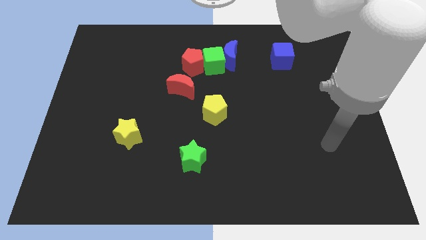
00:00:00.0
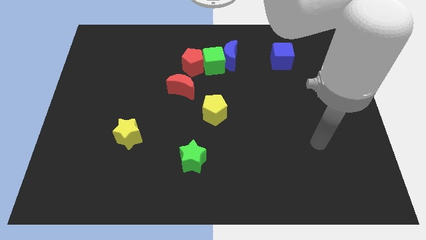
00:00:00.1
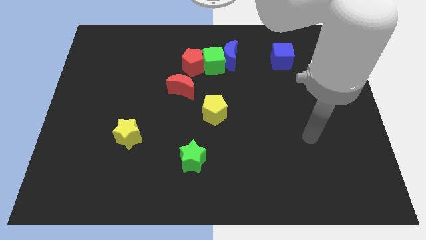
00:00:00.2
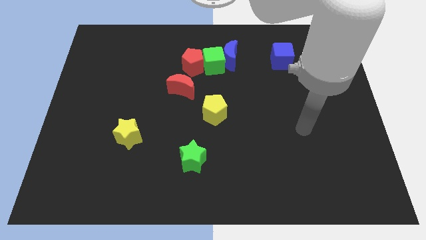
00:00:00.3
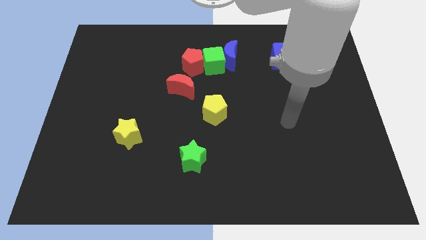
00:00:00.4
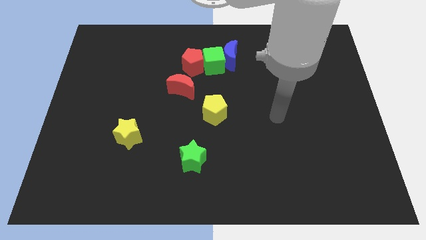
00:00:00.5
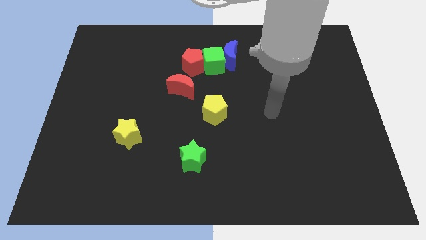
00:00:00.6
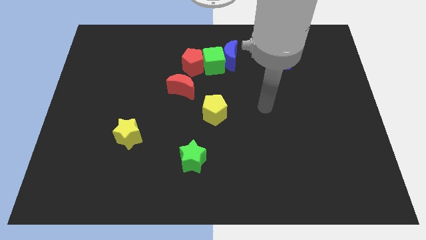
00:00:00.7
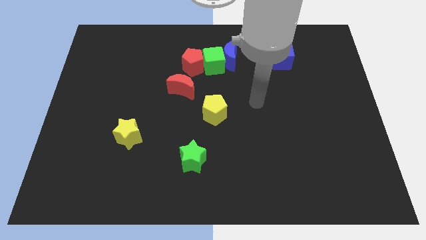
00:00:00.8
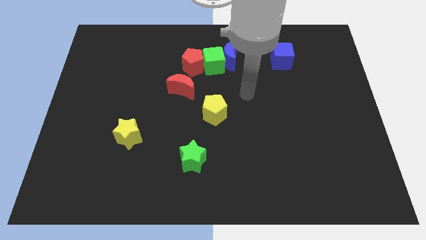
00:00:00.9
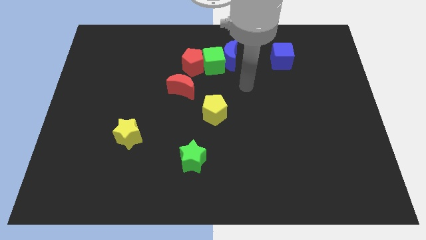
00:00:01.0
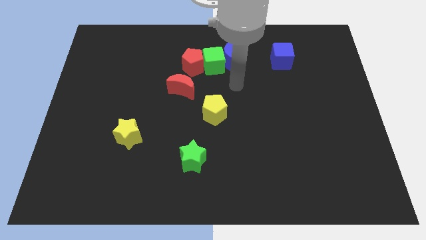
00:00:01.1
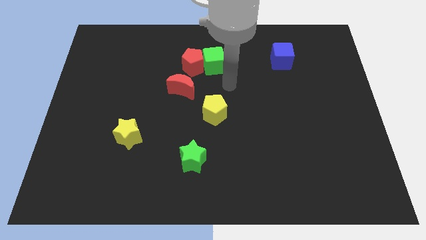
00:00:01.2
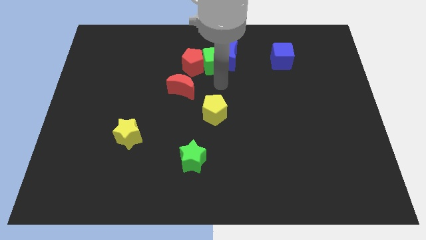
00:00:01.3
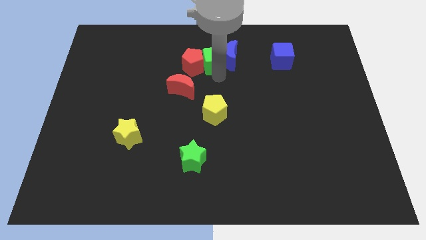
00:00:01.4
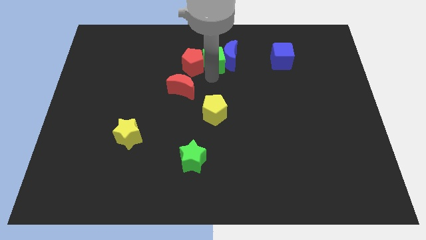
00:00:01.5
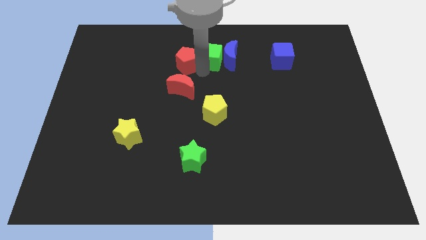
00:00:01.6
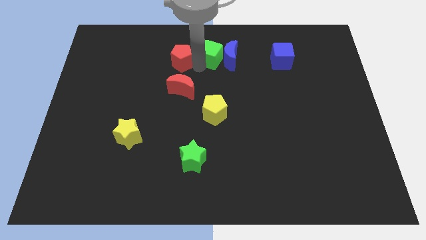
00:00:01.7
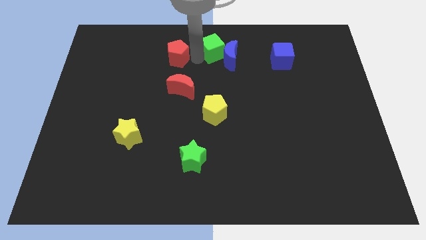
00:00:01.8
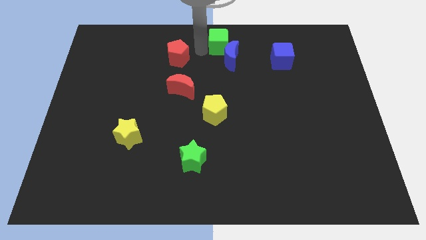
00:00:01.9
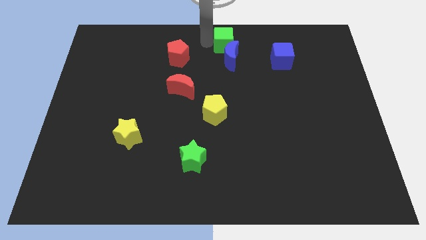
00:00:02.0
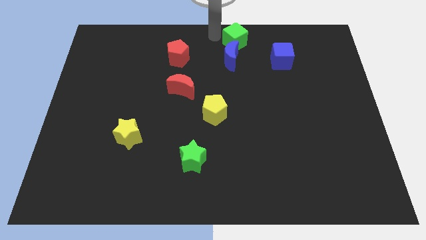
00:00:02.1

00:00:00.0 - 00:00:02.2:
separate the green cube from the blue moon and red pentagon

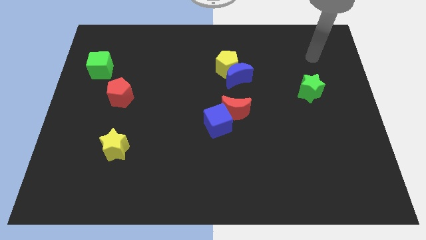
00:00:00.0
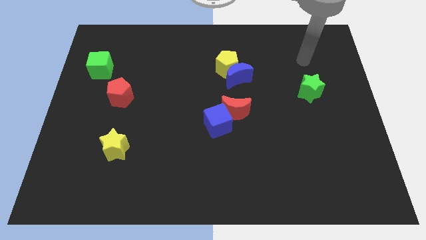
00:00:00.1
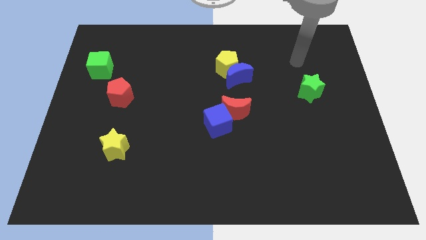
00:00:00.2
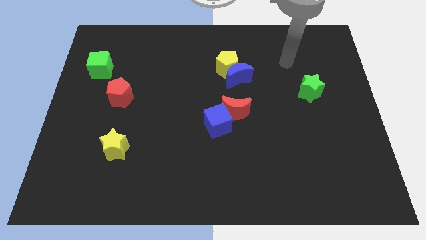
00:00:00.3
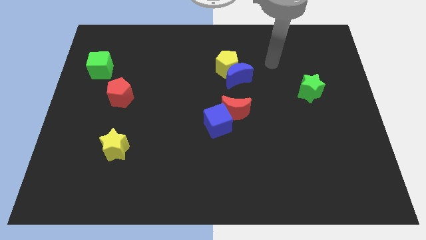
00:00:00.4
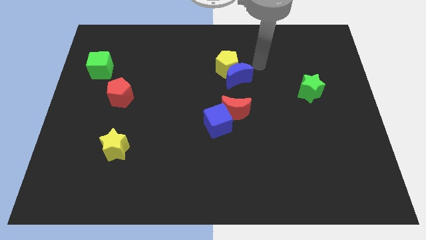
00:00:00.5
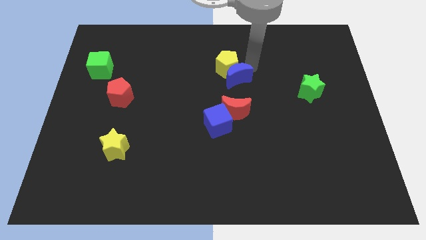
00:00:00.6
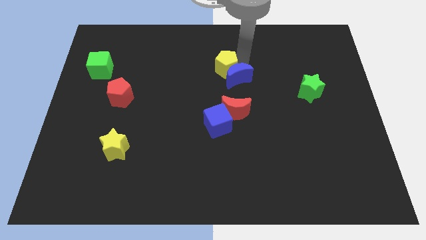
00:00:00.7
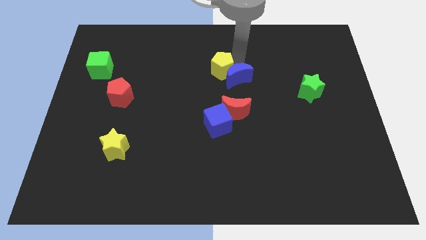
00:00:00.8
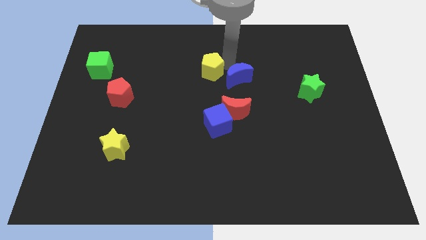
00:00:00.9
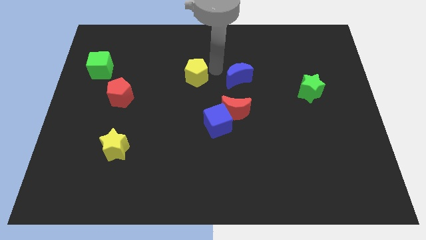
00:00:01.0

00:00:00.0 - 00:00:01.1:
separate the blue moon from the yellow pentagon

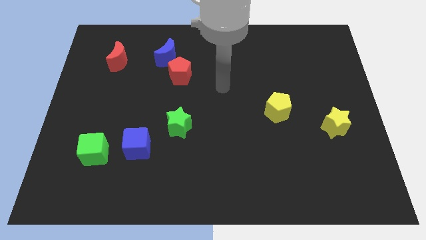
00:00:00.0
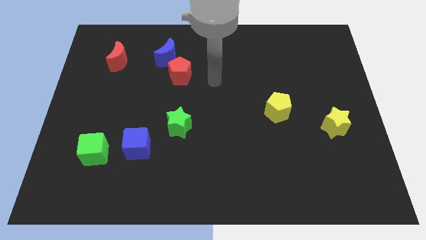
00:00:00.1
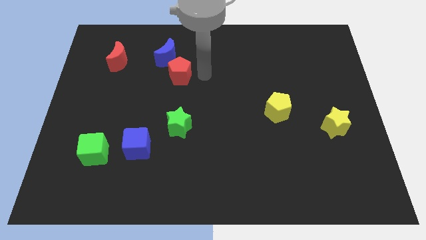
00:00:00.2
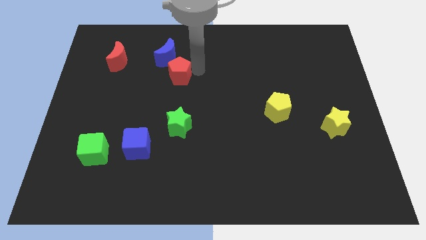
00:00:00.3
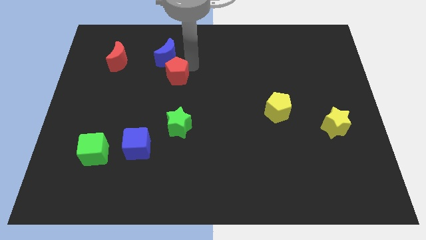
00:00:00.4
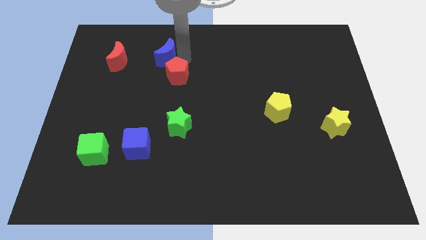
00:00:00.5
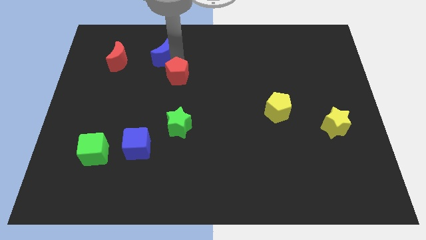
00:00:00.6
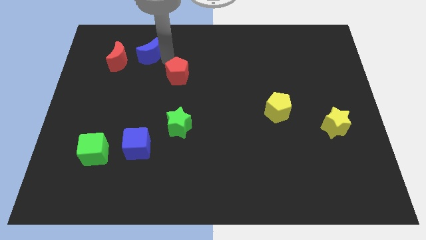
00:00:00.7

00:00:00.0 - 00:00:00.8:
pull the red pentagon apart from the blue moon

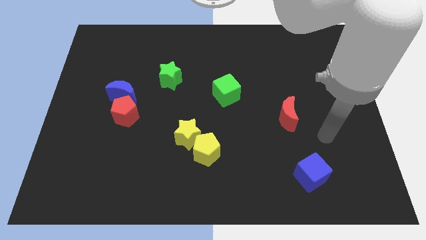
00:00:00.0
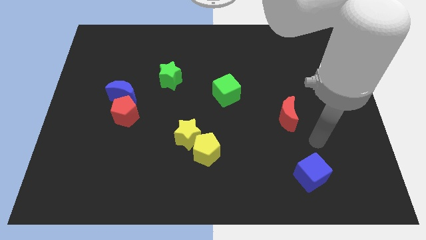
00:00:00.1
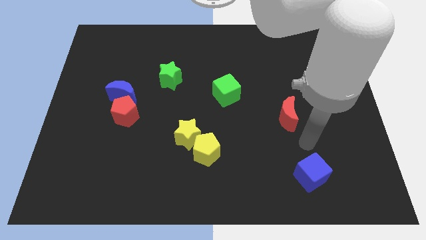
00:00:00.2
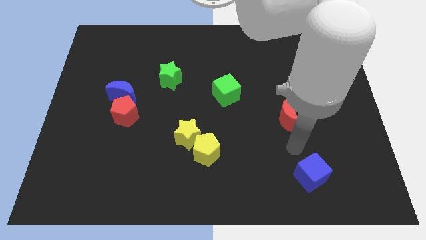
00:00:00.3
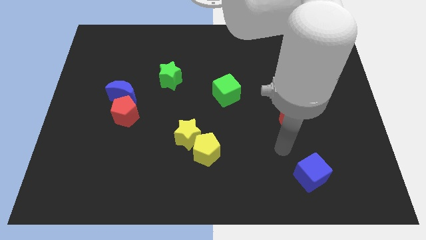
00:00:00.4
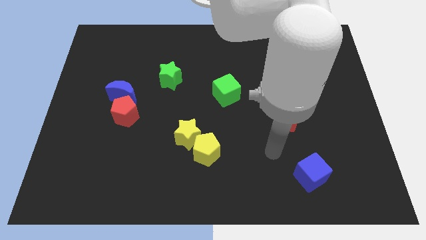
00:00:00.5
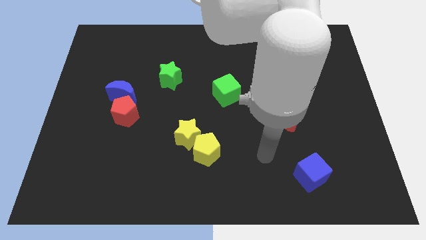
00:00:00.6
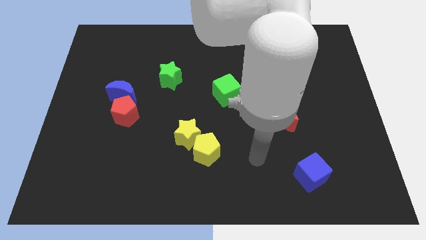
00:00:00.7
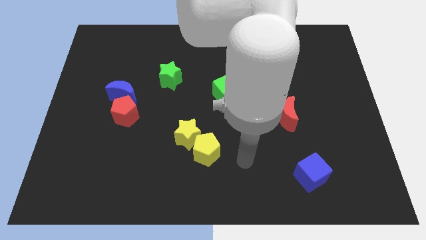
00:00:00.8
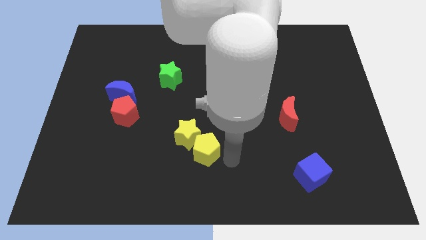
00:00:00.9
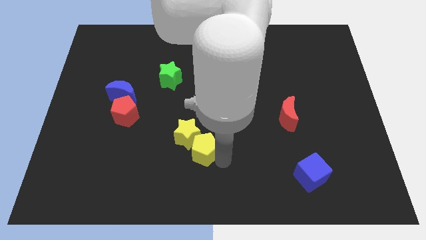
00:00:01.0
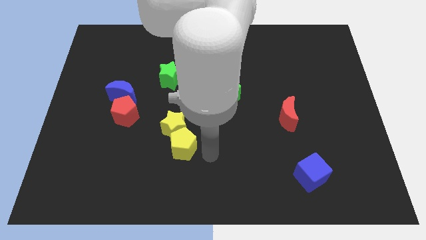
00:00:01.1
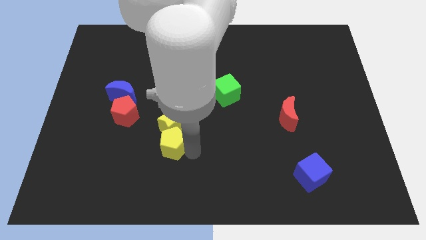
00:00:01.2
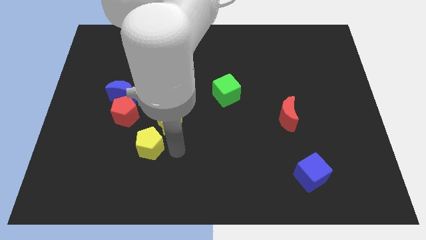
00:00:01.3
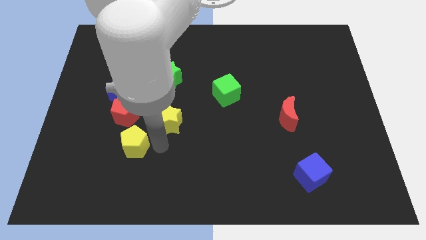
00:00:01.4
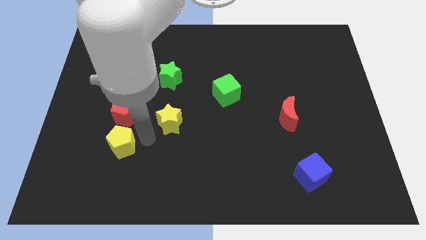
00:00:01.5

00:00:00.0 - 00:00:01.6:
separate the yellow star from the yellow pentagon

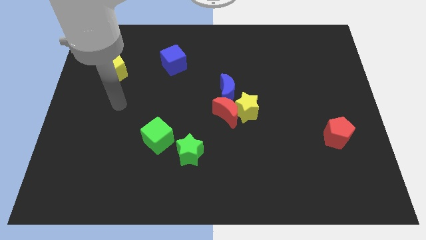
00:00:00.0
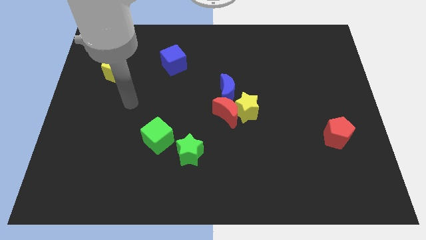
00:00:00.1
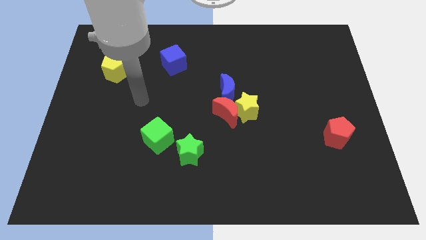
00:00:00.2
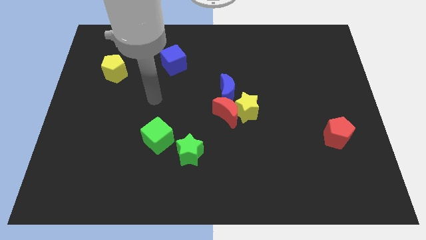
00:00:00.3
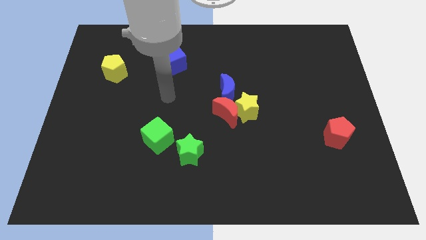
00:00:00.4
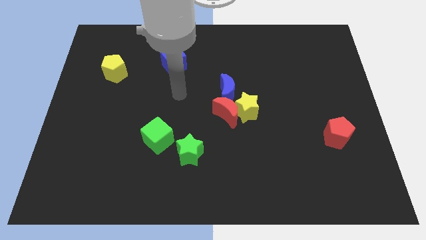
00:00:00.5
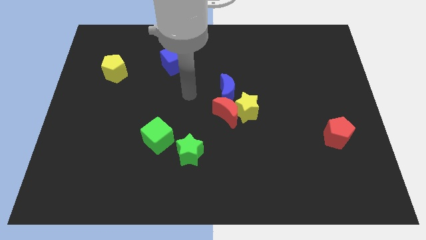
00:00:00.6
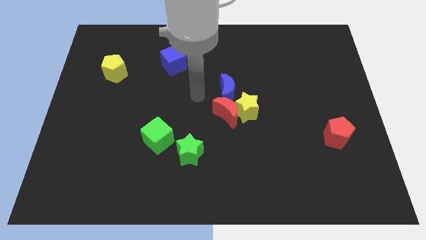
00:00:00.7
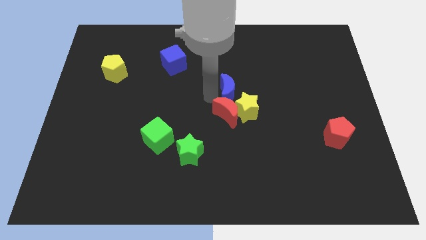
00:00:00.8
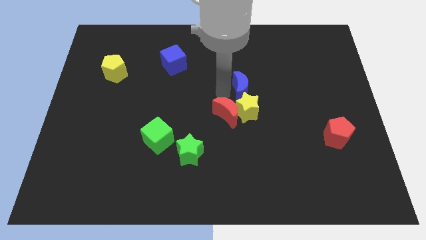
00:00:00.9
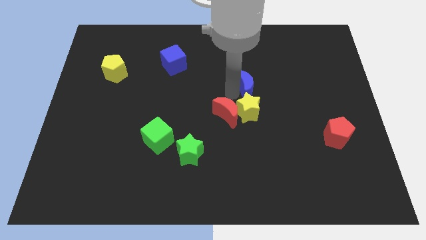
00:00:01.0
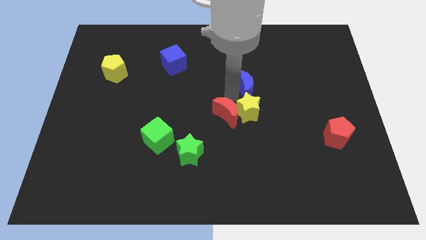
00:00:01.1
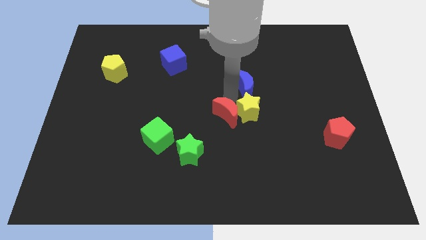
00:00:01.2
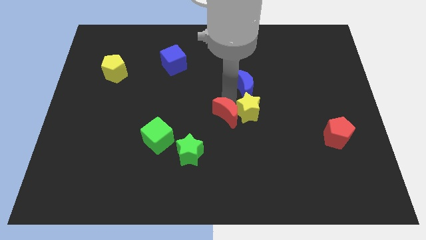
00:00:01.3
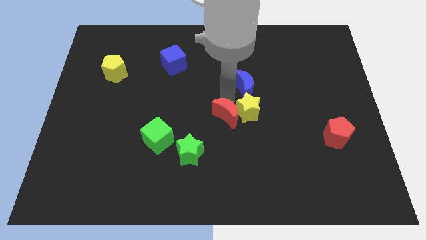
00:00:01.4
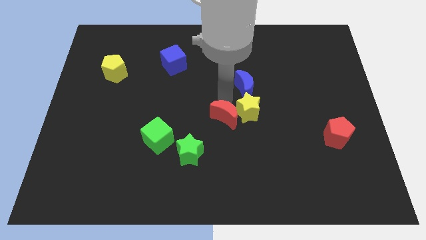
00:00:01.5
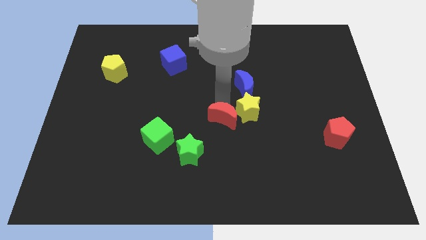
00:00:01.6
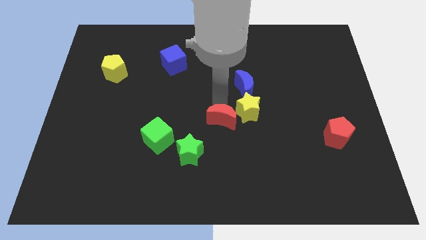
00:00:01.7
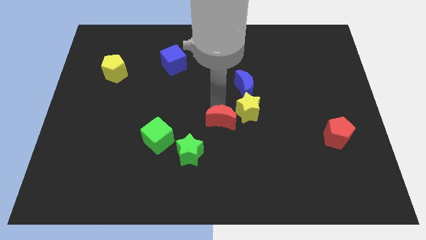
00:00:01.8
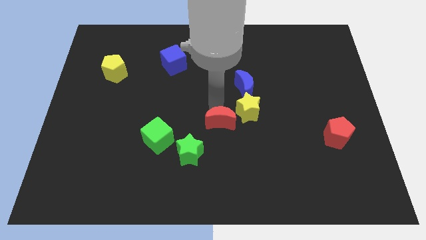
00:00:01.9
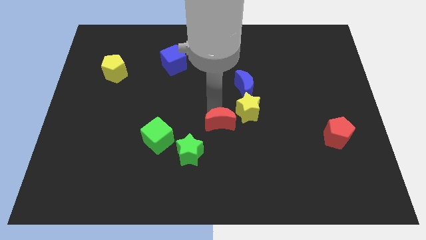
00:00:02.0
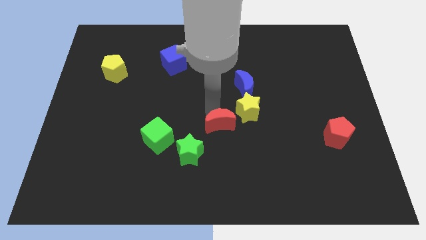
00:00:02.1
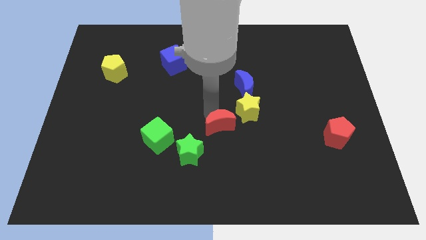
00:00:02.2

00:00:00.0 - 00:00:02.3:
pull the red moon apart from the yellow star and blue moon

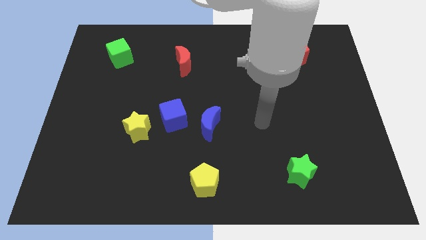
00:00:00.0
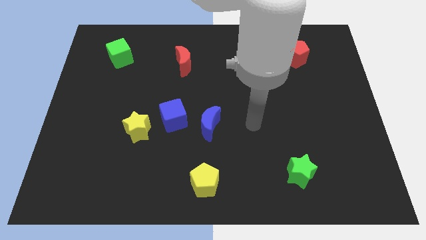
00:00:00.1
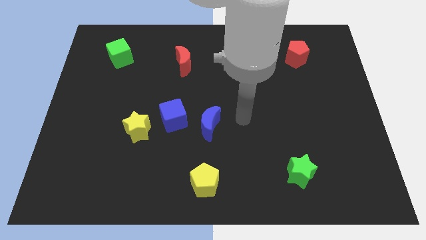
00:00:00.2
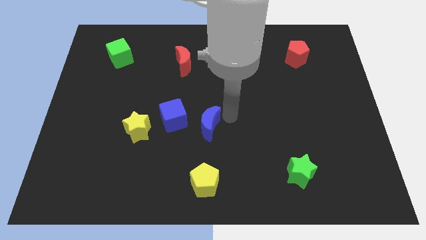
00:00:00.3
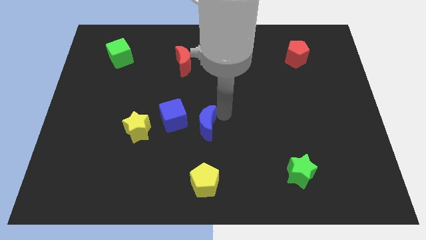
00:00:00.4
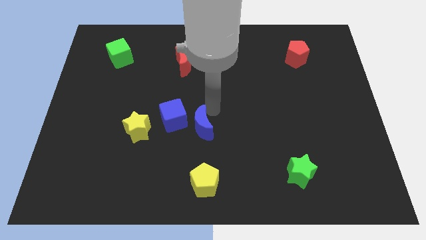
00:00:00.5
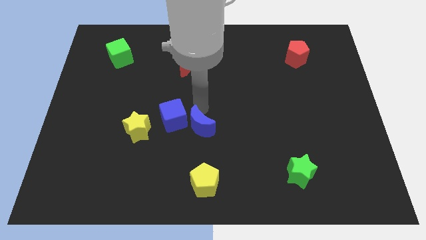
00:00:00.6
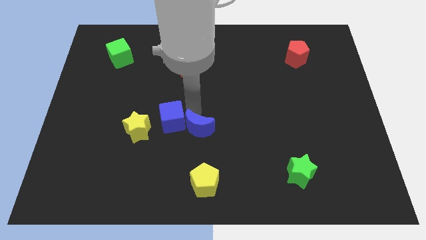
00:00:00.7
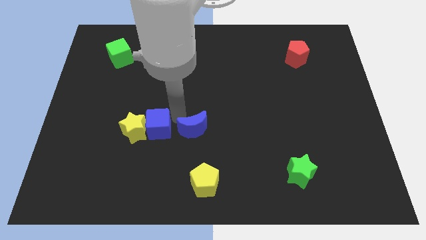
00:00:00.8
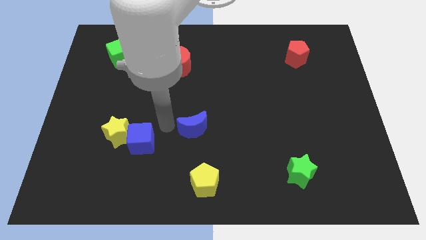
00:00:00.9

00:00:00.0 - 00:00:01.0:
move the blue moon away from the blue cube

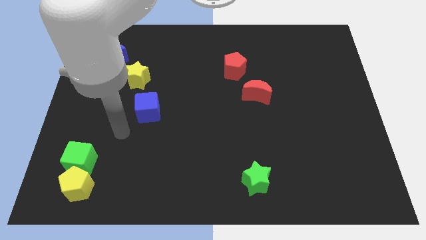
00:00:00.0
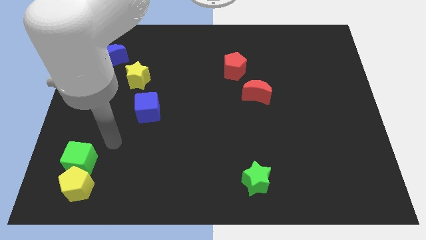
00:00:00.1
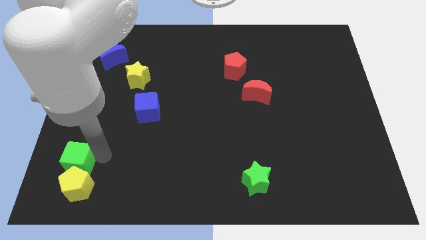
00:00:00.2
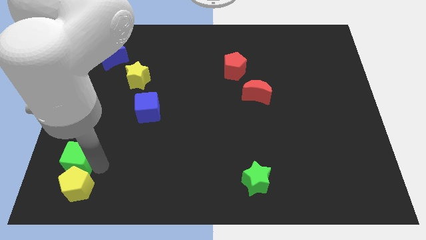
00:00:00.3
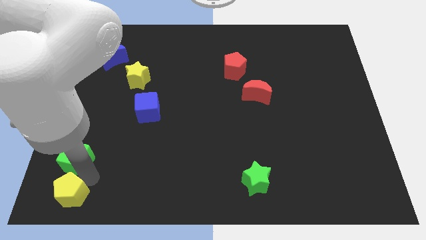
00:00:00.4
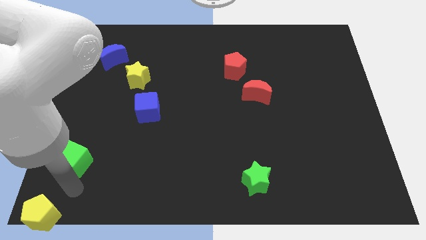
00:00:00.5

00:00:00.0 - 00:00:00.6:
pull the green cube apart from the yellow pentagon
